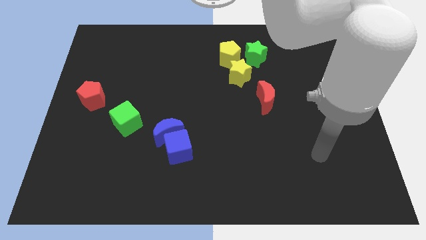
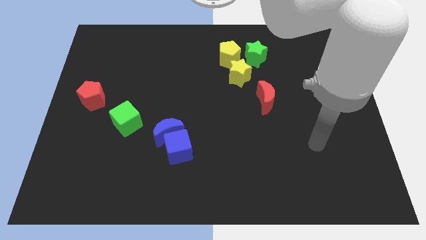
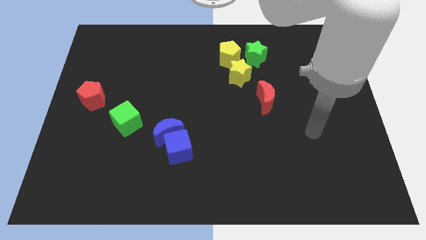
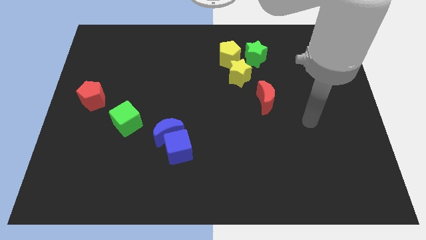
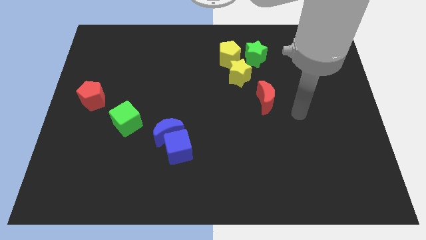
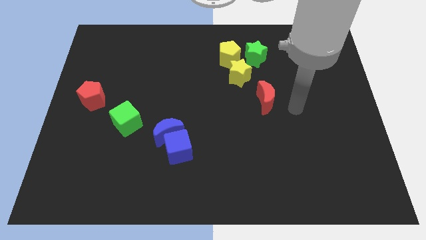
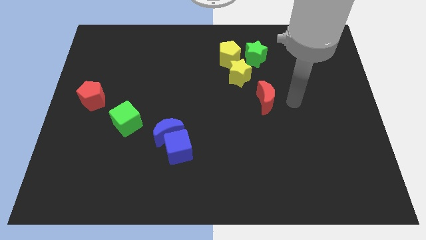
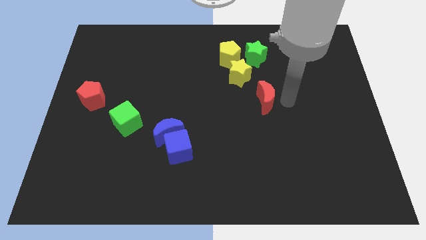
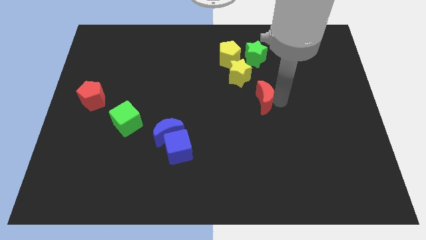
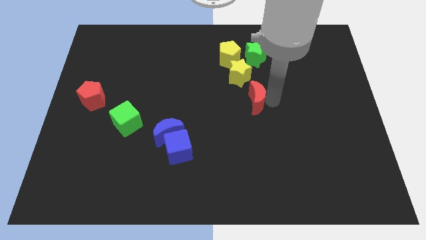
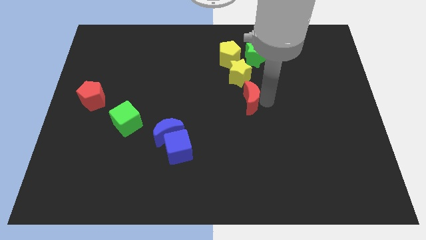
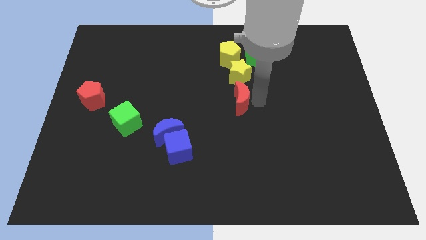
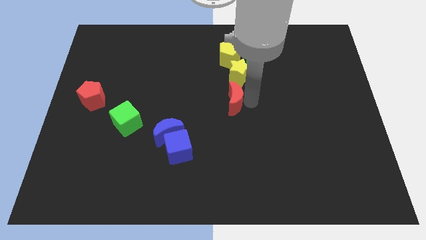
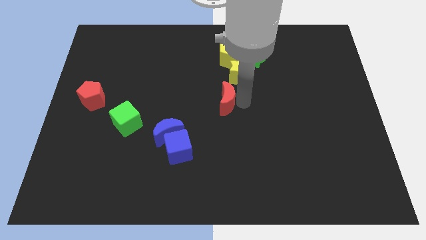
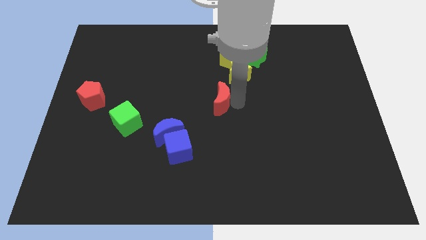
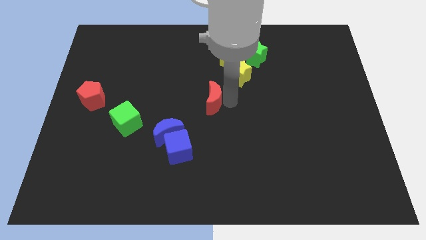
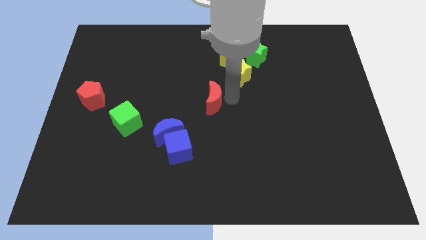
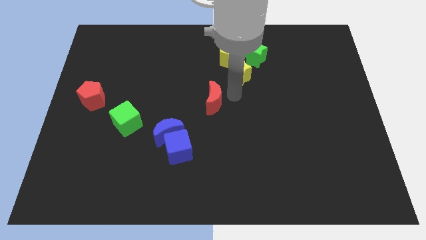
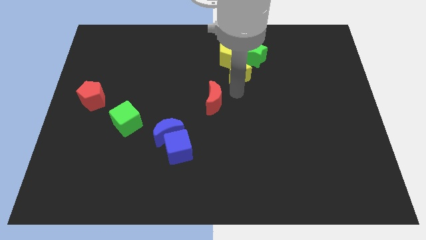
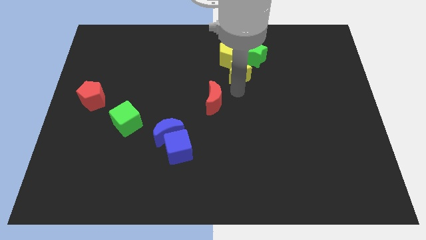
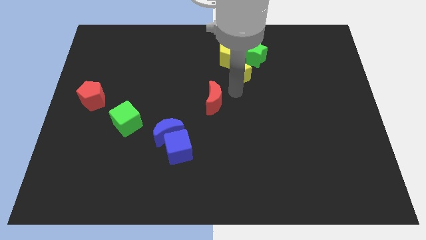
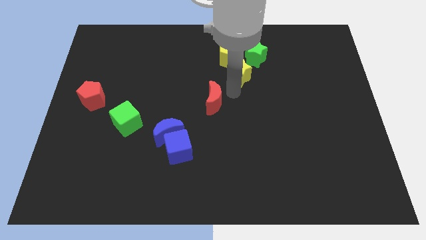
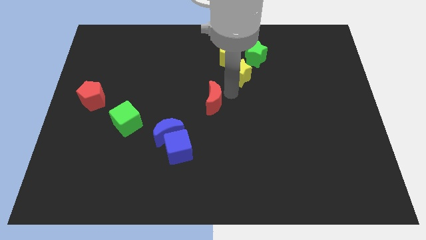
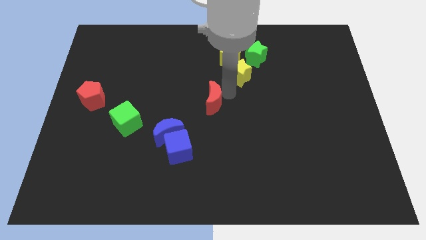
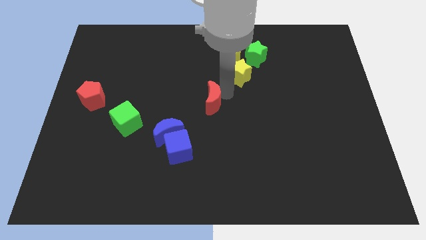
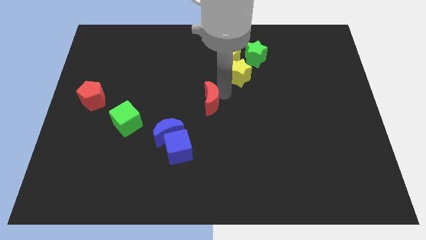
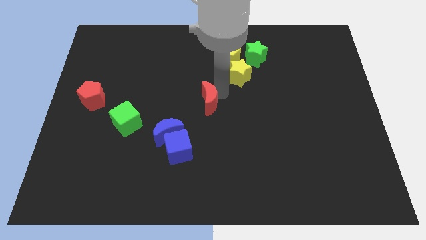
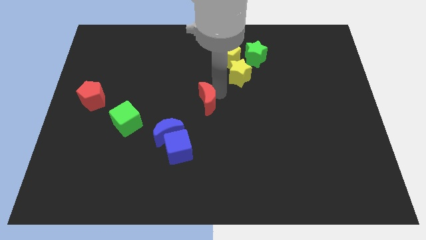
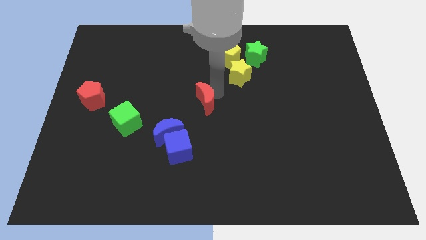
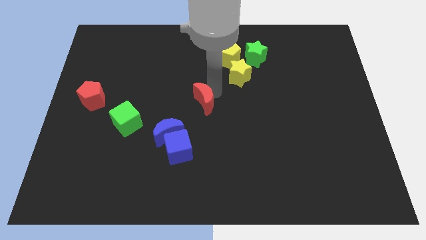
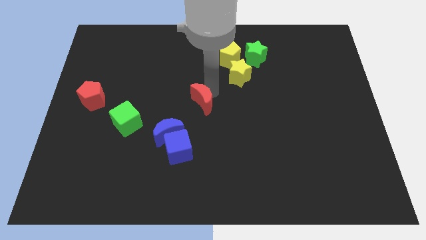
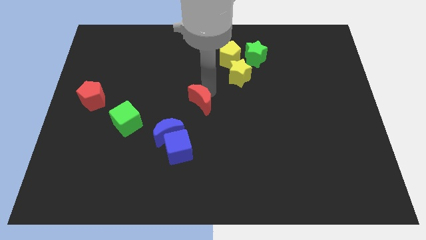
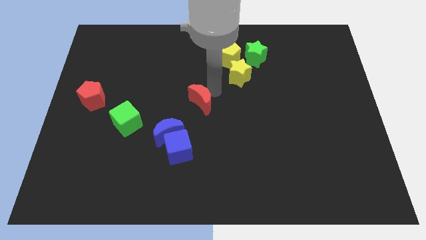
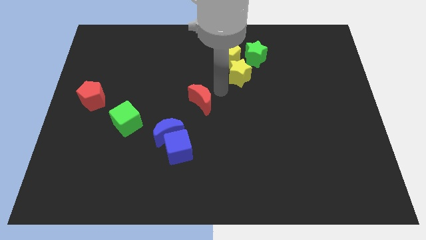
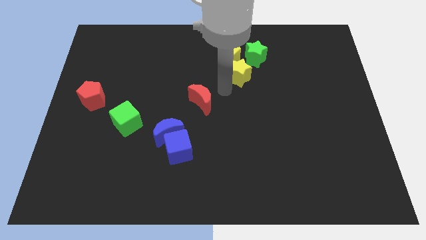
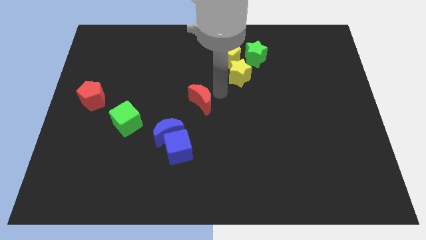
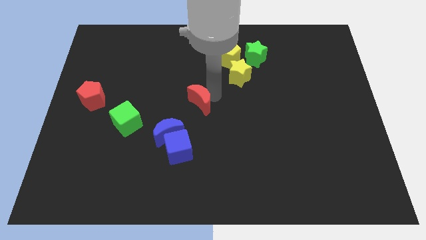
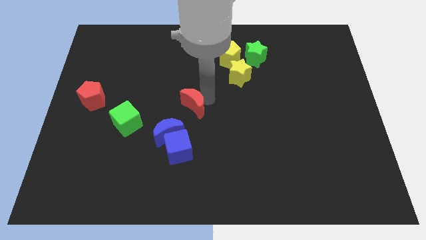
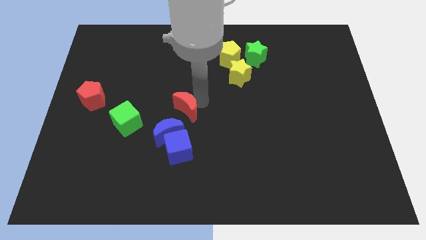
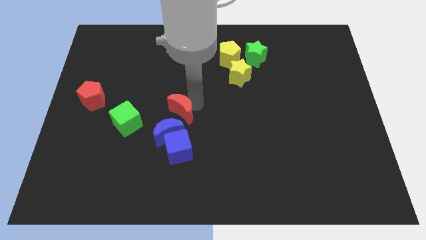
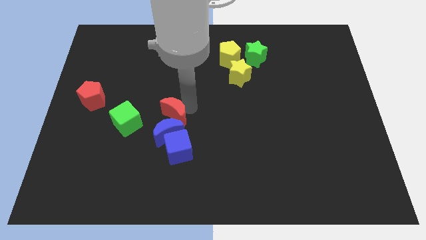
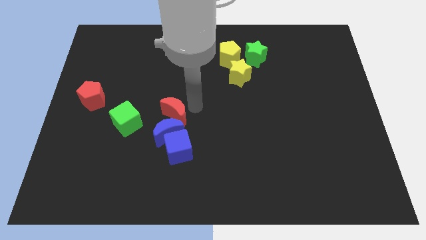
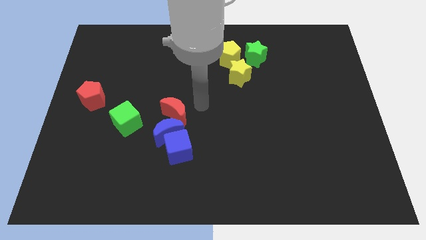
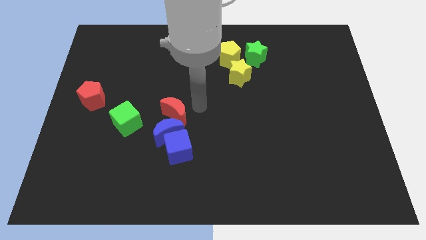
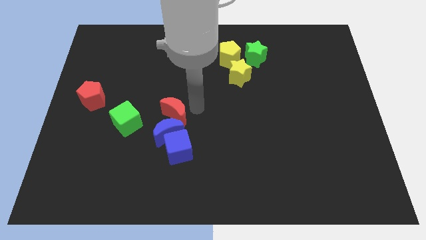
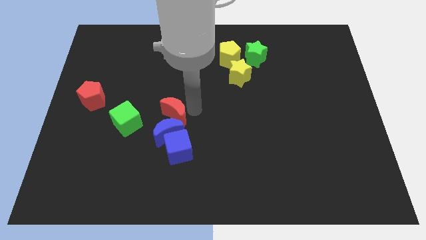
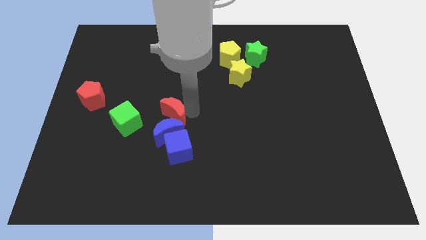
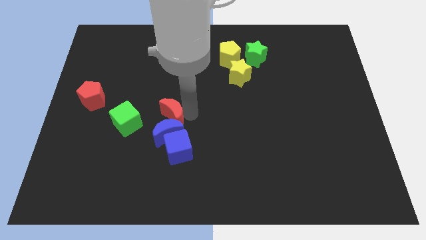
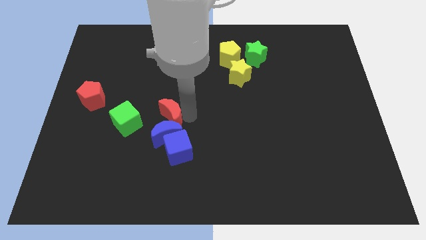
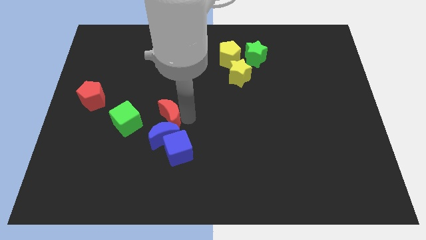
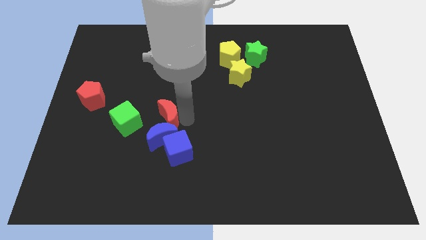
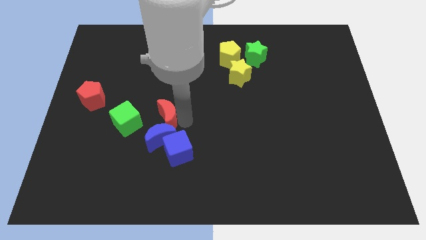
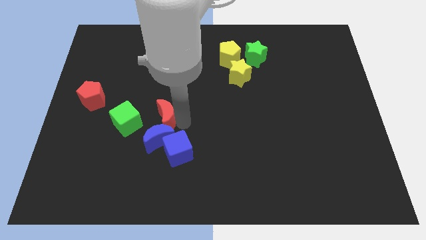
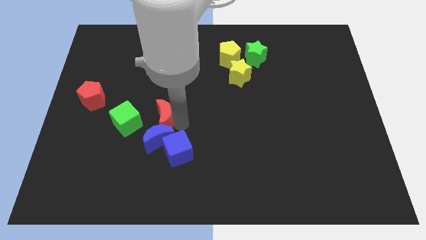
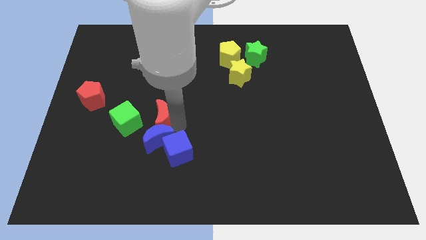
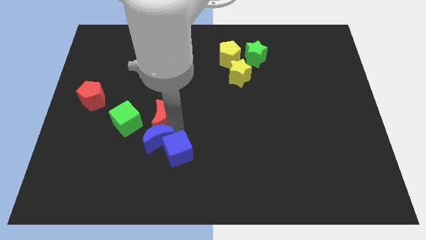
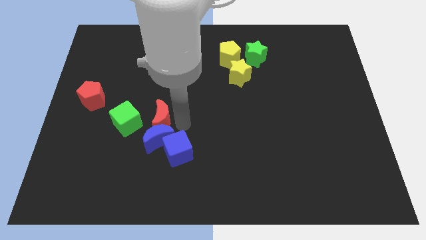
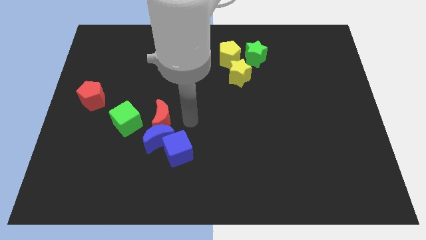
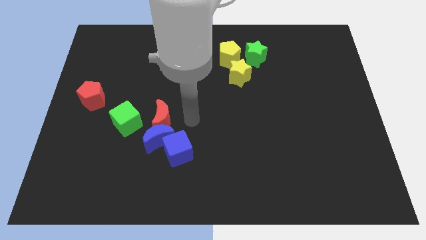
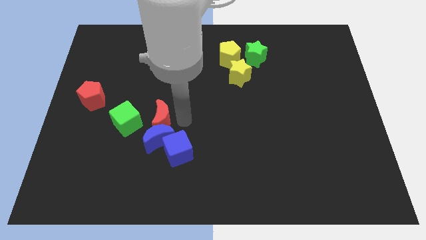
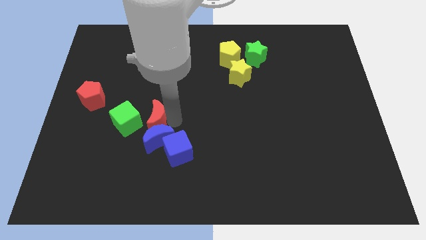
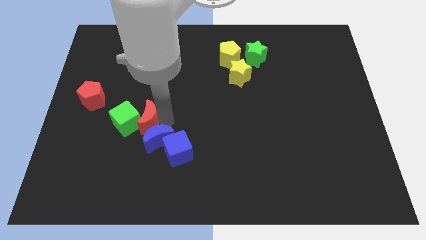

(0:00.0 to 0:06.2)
move the red moon to the green cube
